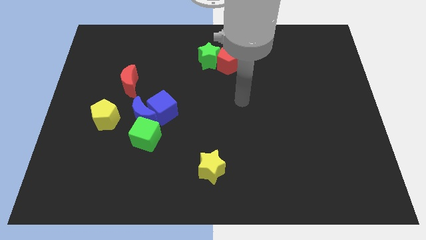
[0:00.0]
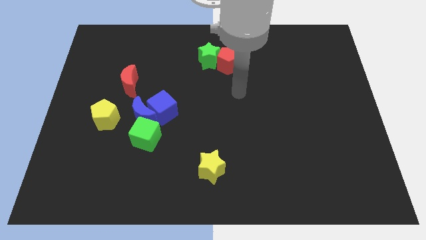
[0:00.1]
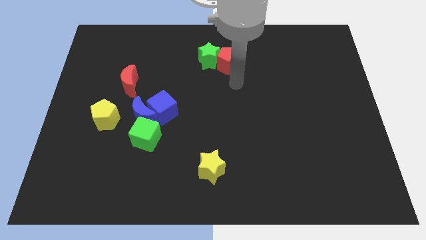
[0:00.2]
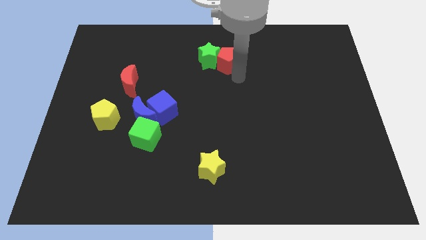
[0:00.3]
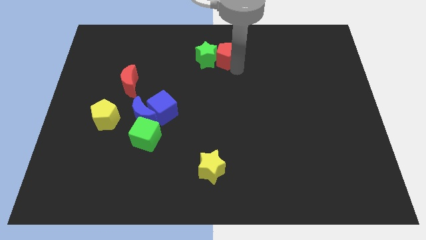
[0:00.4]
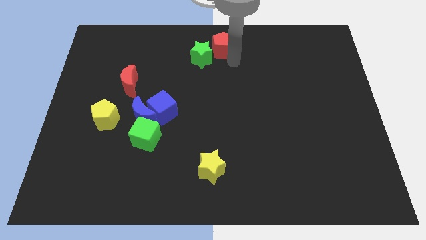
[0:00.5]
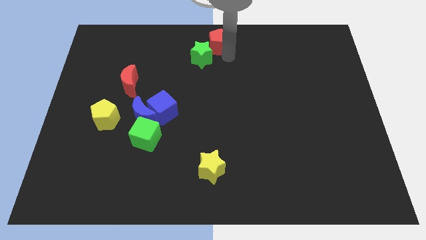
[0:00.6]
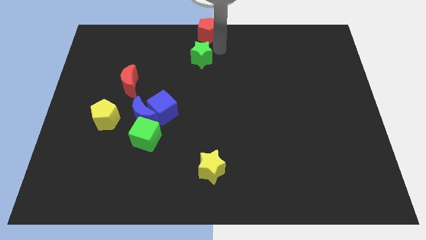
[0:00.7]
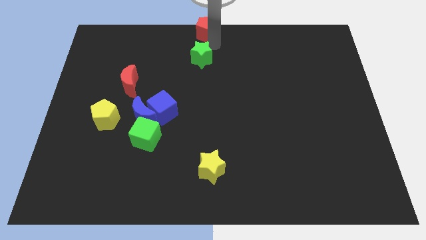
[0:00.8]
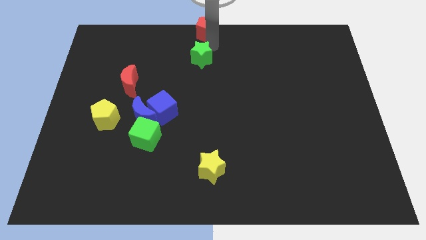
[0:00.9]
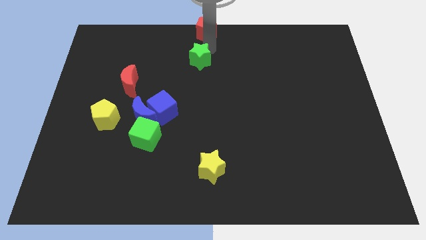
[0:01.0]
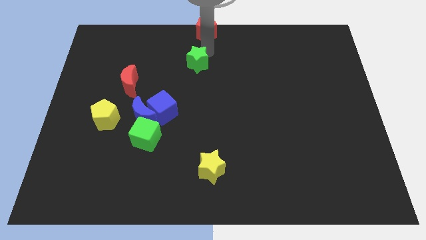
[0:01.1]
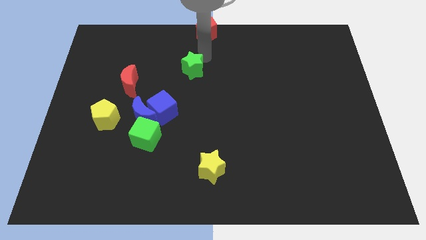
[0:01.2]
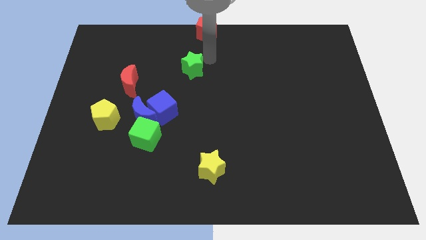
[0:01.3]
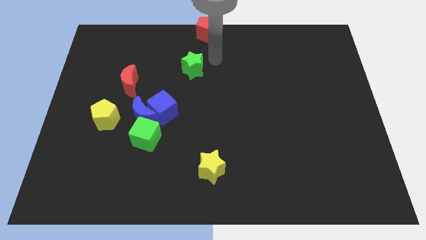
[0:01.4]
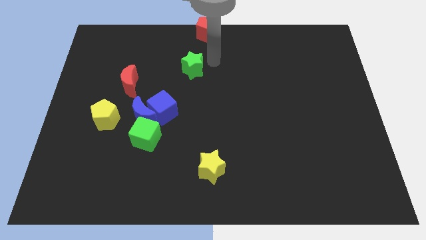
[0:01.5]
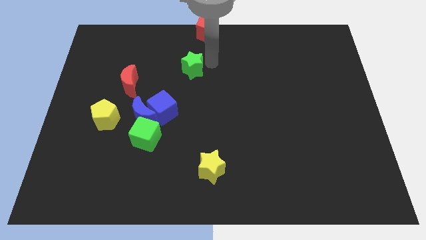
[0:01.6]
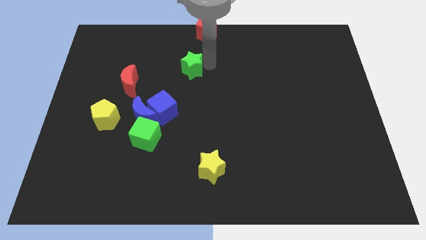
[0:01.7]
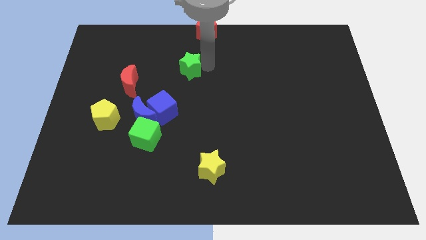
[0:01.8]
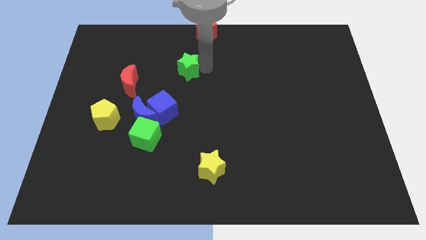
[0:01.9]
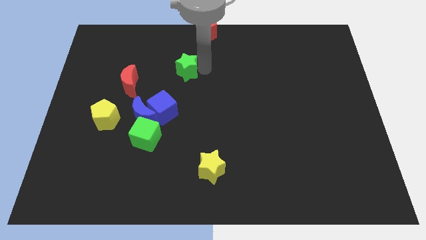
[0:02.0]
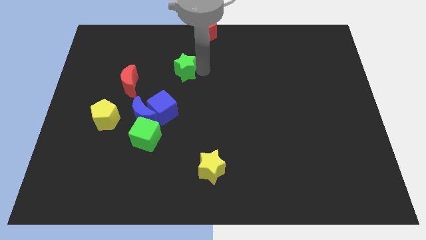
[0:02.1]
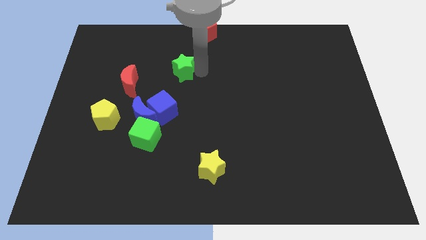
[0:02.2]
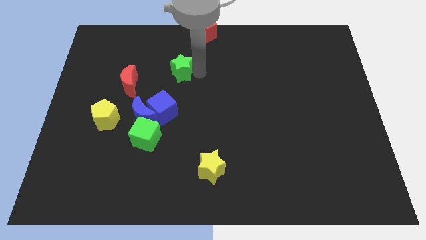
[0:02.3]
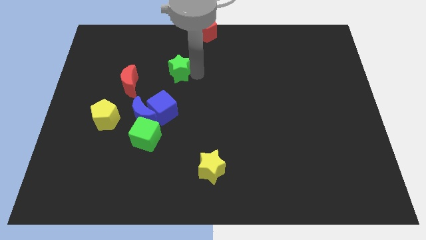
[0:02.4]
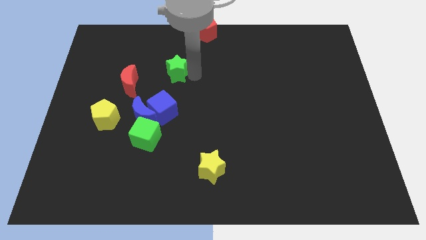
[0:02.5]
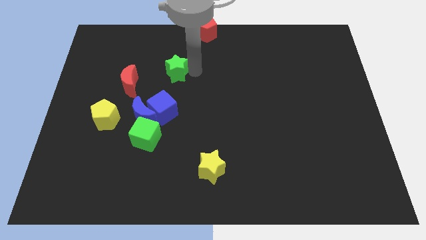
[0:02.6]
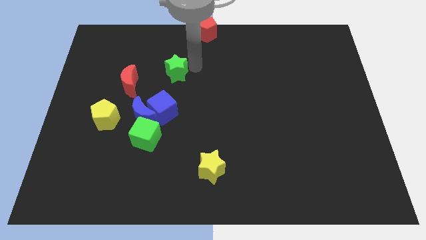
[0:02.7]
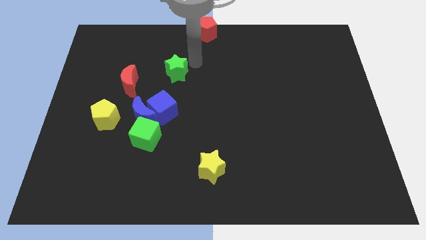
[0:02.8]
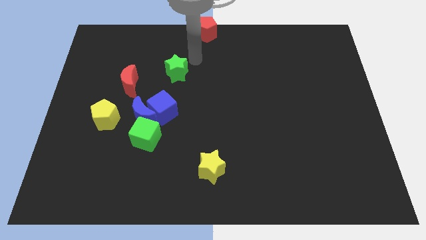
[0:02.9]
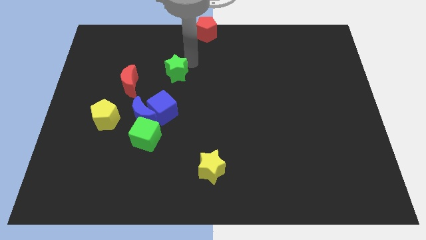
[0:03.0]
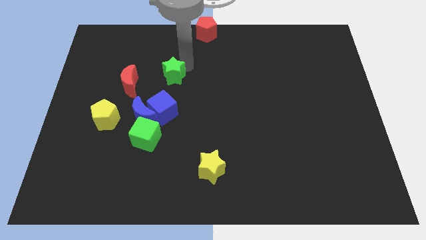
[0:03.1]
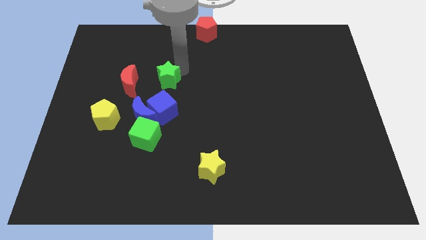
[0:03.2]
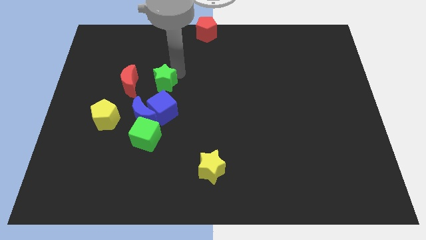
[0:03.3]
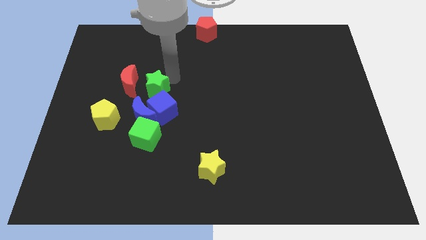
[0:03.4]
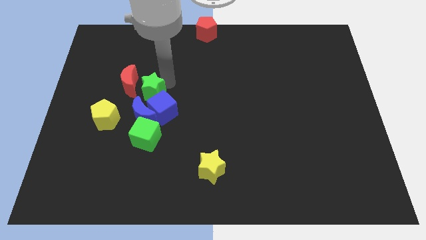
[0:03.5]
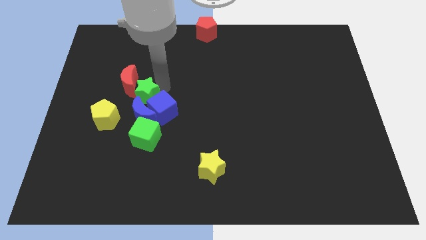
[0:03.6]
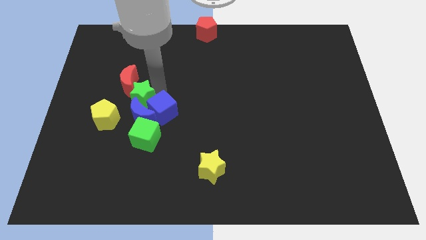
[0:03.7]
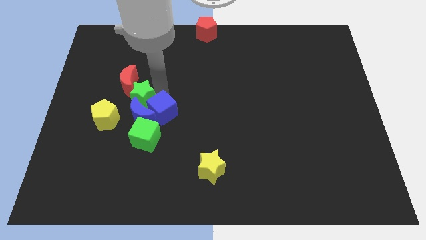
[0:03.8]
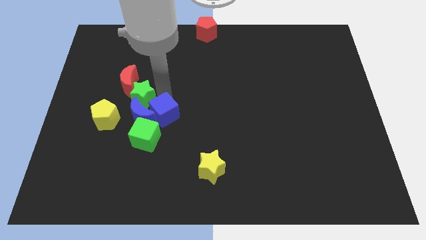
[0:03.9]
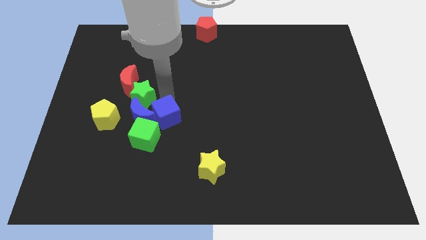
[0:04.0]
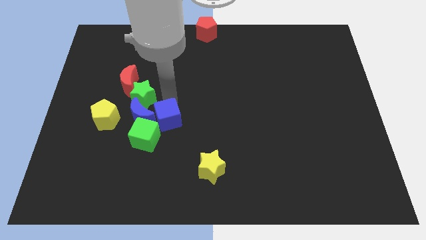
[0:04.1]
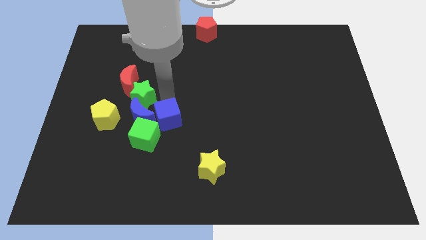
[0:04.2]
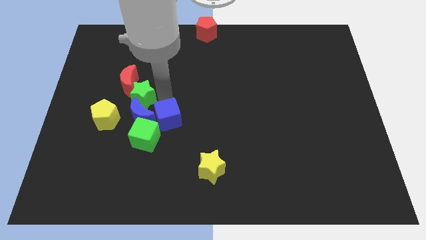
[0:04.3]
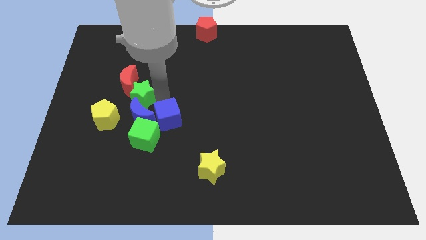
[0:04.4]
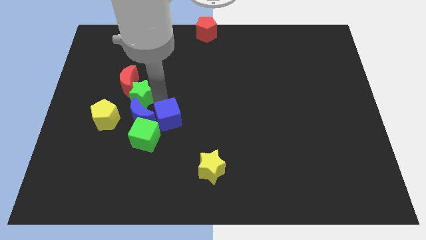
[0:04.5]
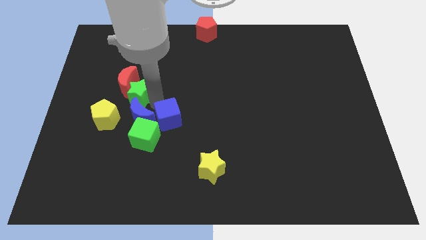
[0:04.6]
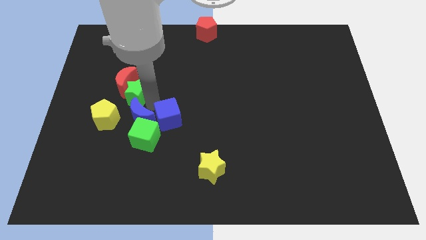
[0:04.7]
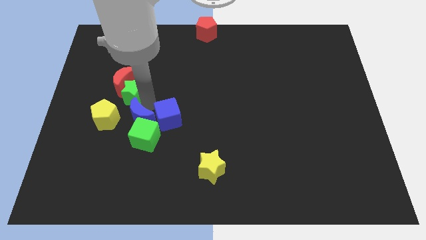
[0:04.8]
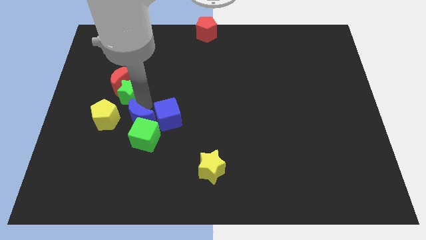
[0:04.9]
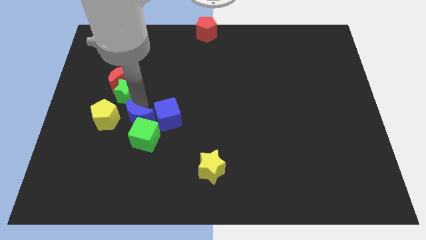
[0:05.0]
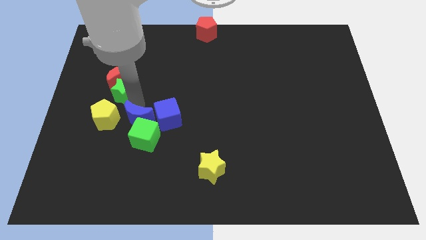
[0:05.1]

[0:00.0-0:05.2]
move the green star diagonally down and to the left of the red moon

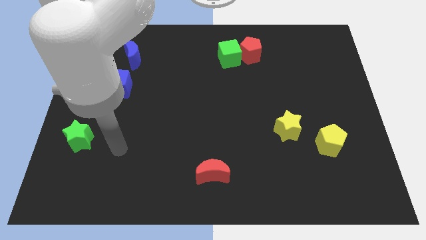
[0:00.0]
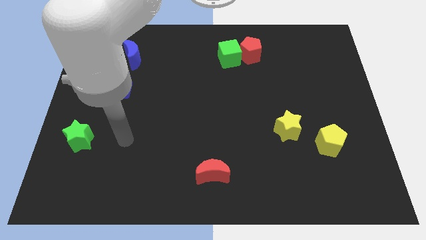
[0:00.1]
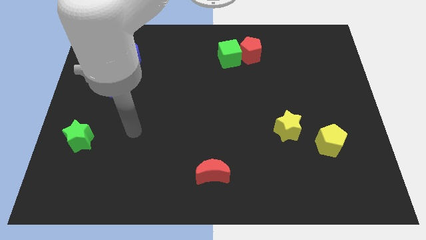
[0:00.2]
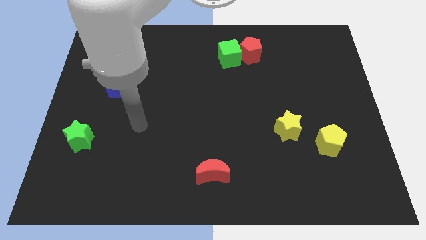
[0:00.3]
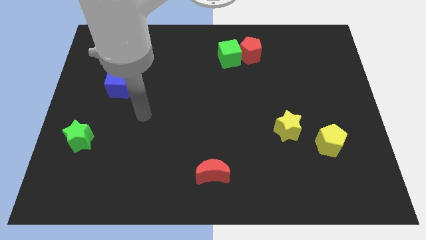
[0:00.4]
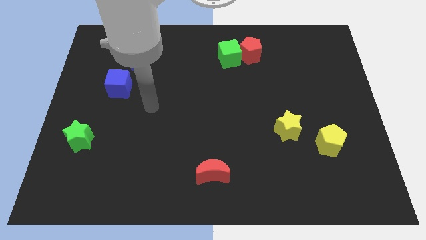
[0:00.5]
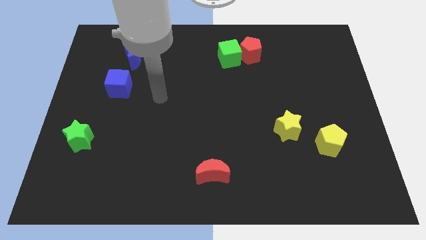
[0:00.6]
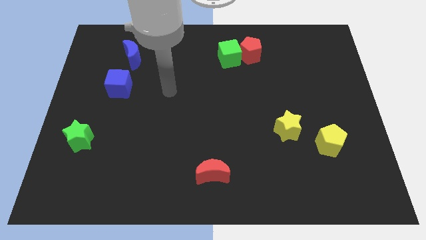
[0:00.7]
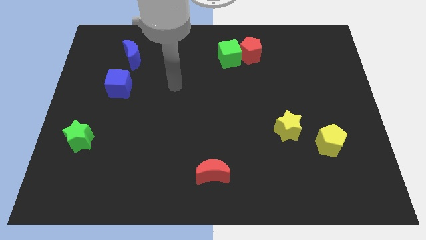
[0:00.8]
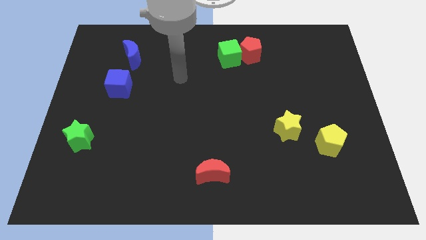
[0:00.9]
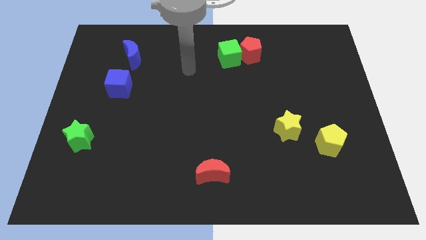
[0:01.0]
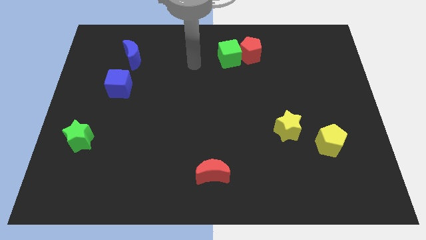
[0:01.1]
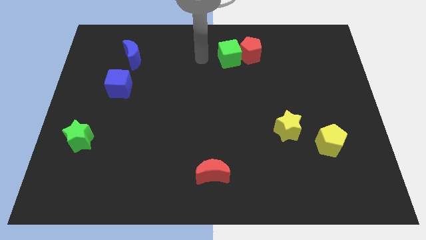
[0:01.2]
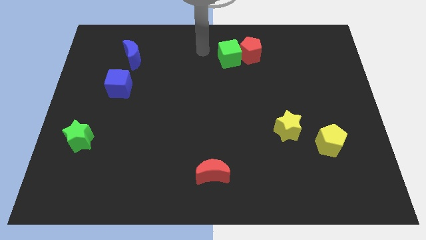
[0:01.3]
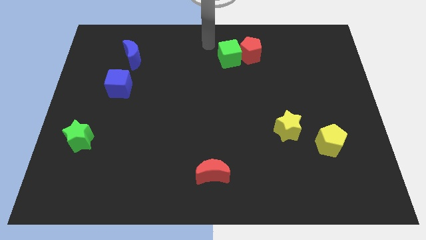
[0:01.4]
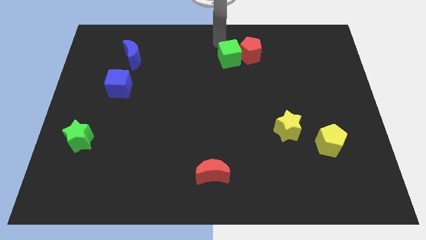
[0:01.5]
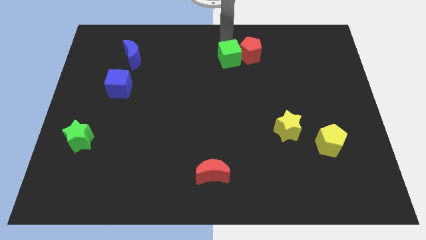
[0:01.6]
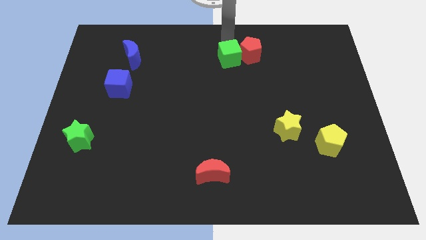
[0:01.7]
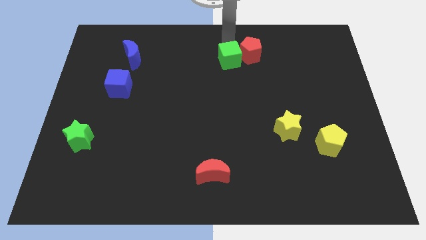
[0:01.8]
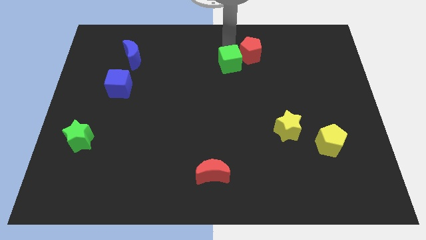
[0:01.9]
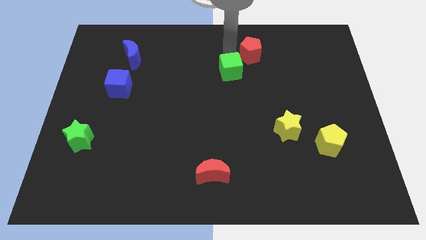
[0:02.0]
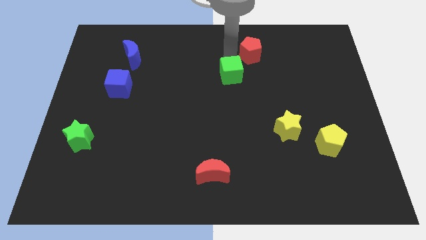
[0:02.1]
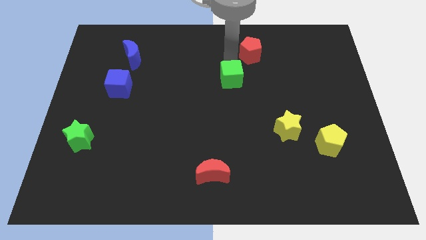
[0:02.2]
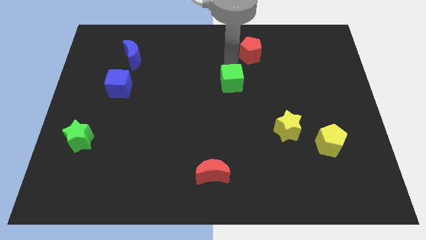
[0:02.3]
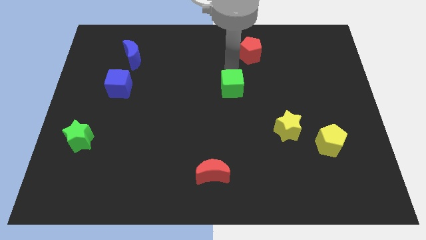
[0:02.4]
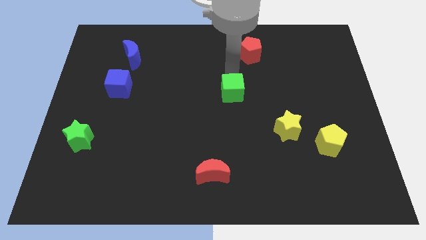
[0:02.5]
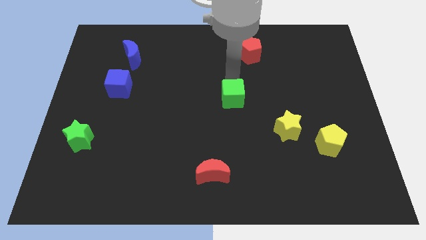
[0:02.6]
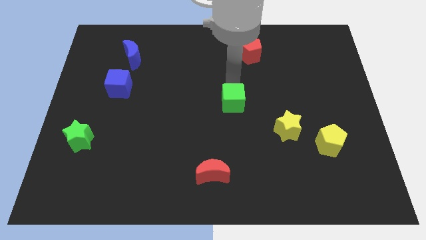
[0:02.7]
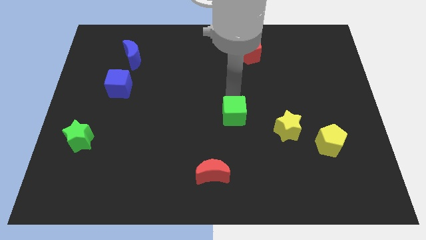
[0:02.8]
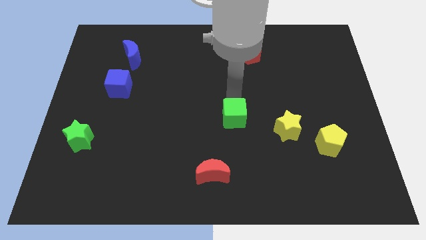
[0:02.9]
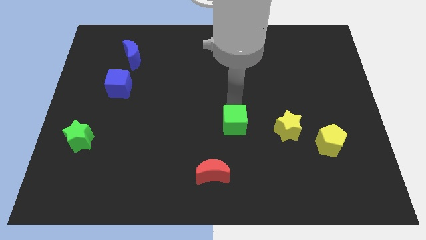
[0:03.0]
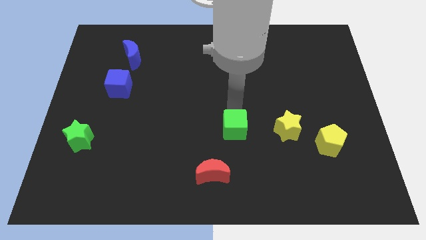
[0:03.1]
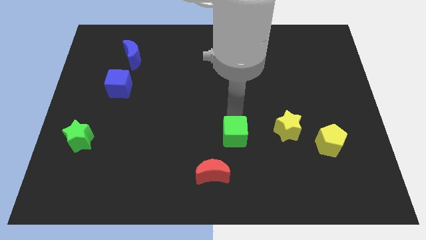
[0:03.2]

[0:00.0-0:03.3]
move the green cube diagonally up and to the right of the red moon
